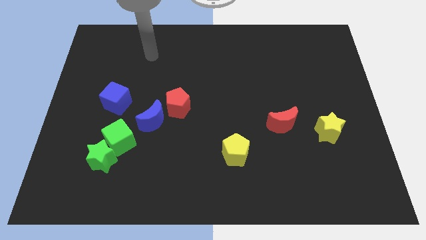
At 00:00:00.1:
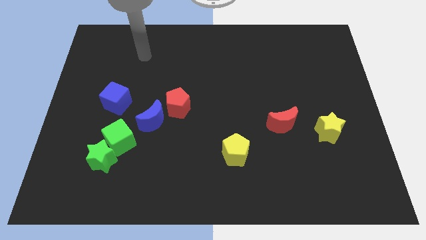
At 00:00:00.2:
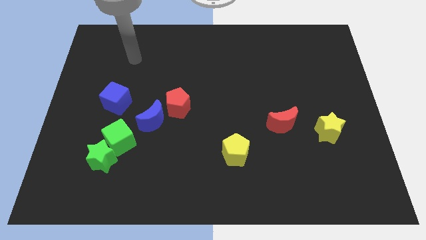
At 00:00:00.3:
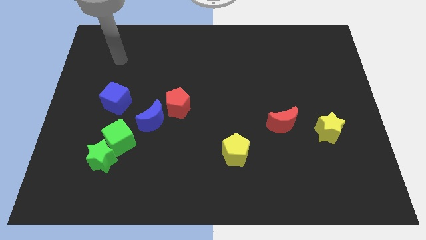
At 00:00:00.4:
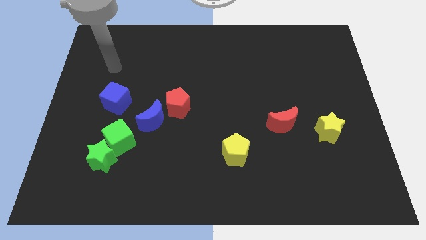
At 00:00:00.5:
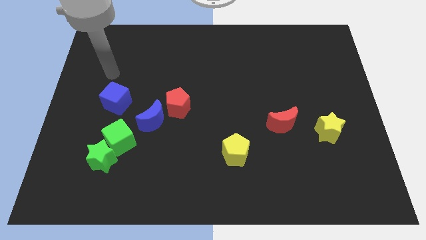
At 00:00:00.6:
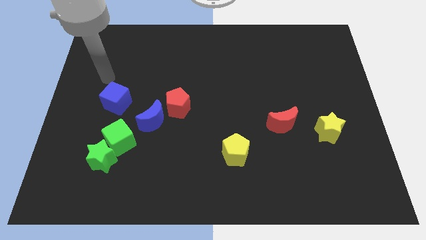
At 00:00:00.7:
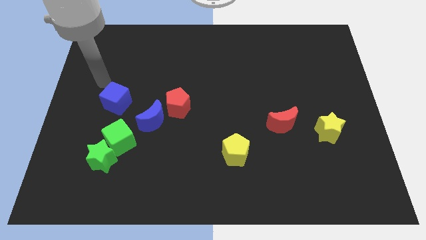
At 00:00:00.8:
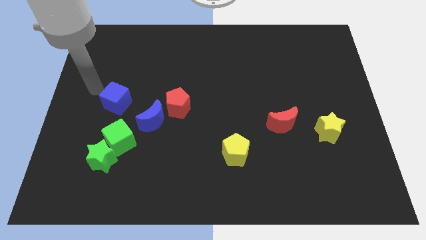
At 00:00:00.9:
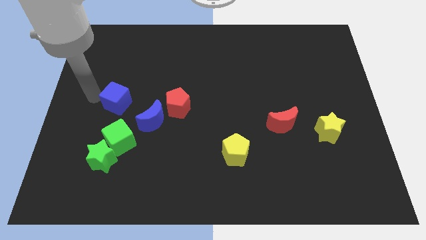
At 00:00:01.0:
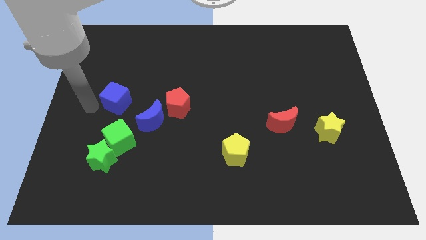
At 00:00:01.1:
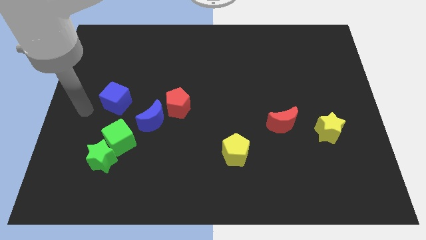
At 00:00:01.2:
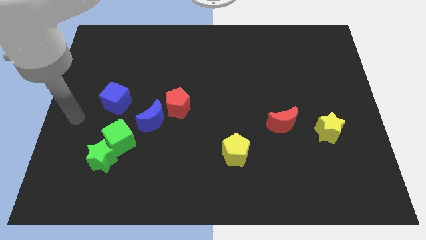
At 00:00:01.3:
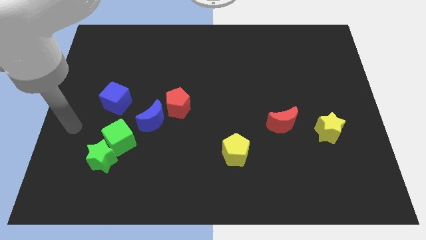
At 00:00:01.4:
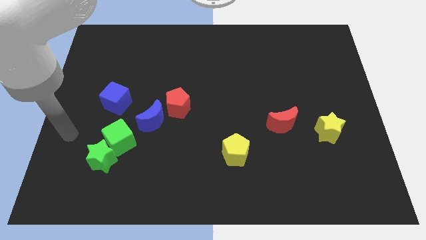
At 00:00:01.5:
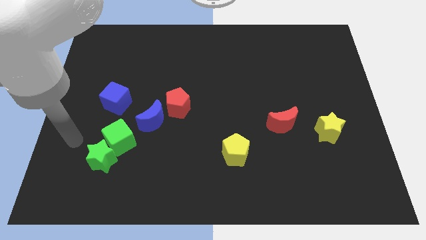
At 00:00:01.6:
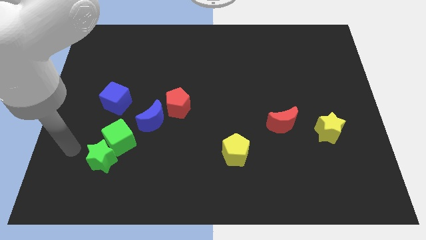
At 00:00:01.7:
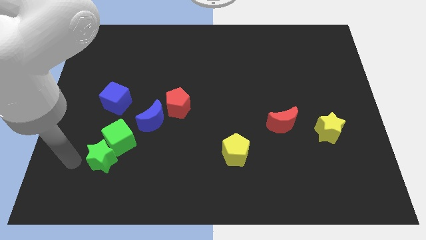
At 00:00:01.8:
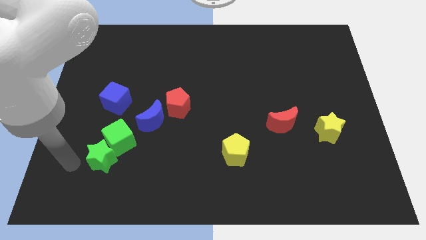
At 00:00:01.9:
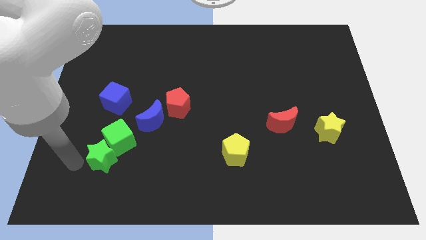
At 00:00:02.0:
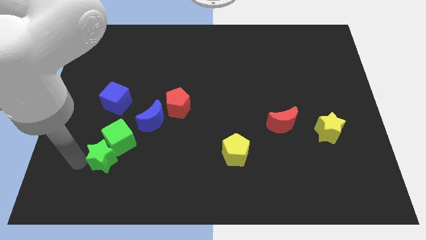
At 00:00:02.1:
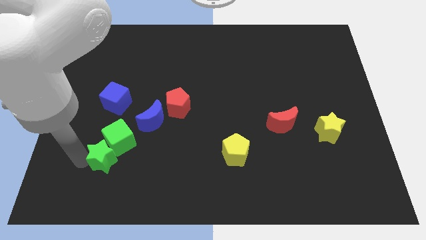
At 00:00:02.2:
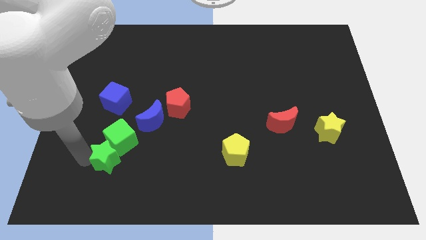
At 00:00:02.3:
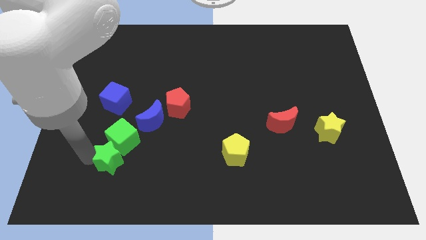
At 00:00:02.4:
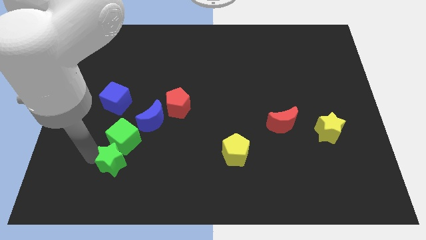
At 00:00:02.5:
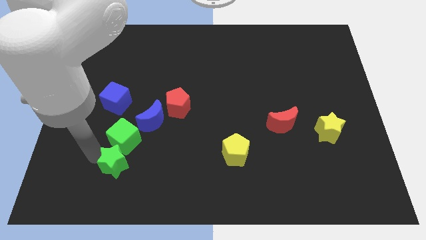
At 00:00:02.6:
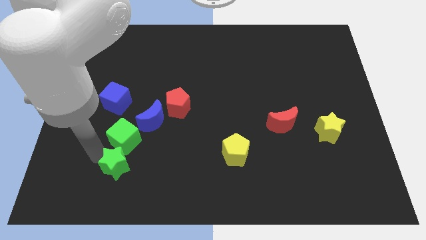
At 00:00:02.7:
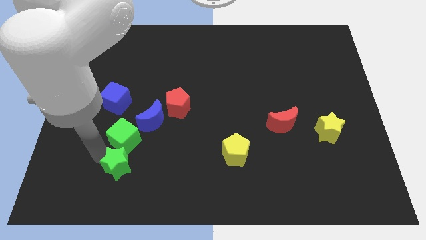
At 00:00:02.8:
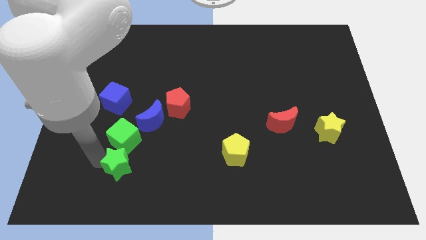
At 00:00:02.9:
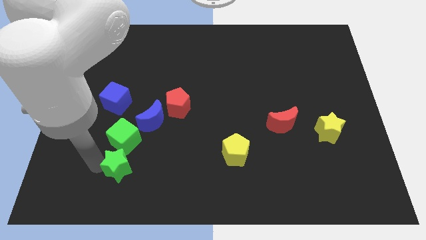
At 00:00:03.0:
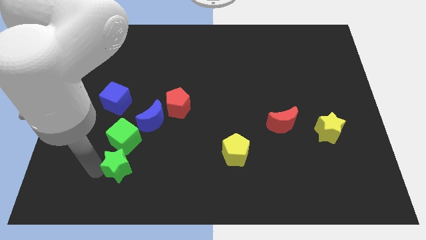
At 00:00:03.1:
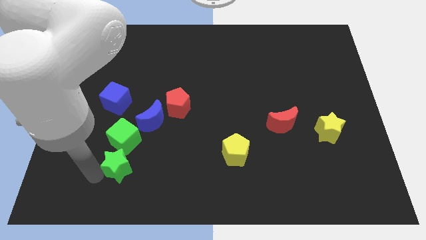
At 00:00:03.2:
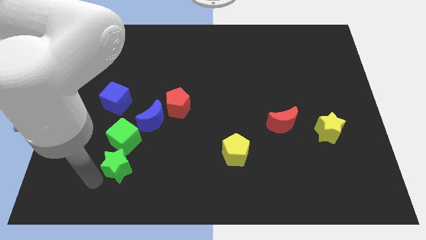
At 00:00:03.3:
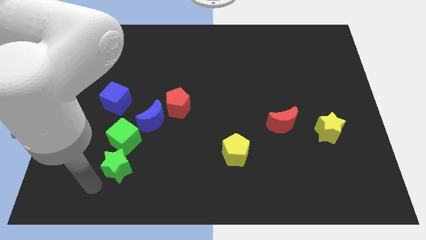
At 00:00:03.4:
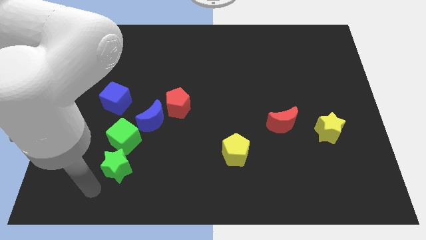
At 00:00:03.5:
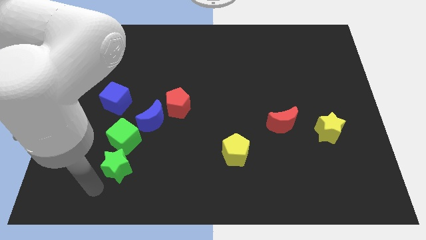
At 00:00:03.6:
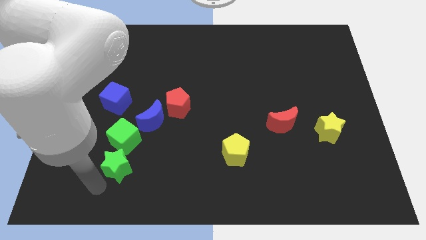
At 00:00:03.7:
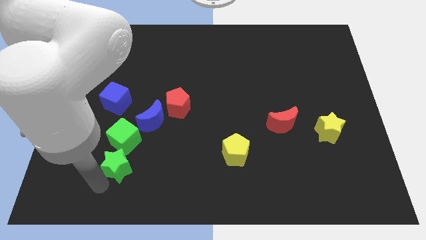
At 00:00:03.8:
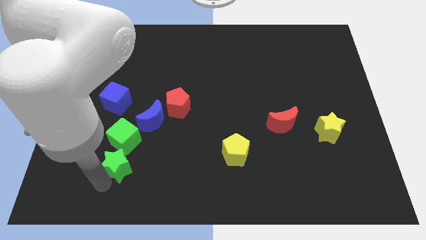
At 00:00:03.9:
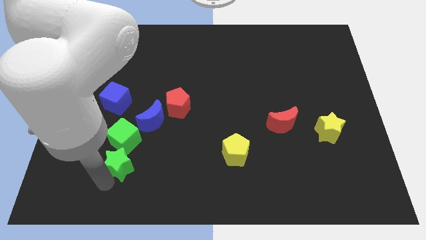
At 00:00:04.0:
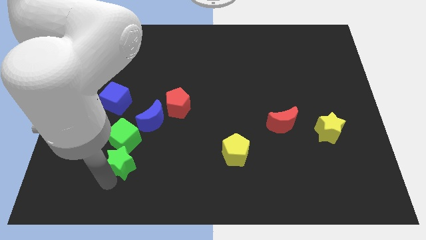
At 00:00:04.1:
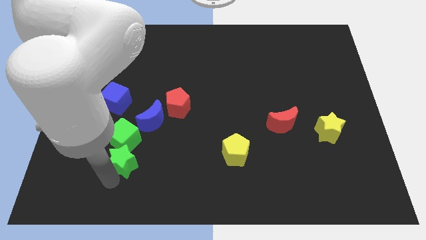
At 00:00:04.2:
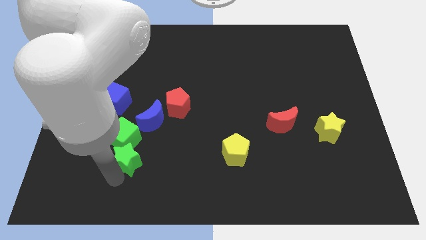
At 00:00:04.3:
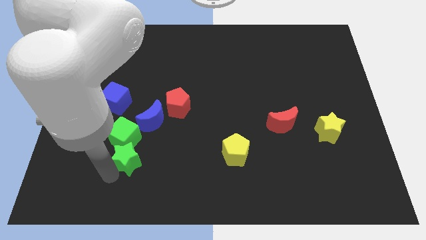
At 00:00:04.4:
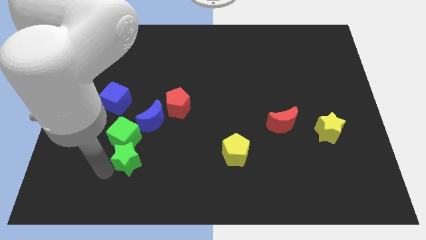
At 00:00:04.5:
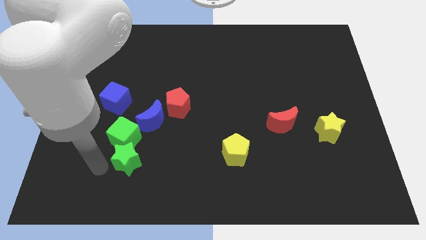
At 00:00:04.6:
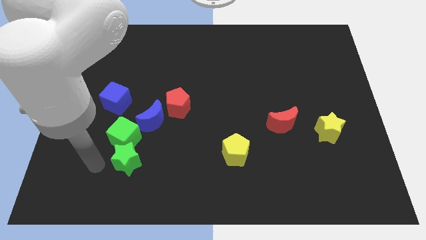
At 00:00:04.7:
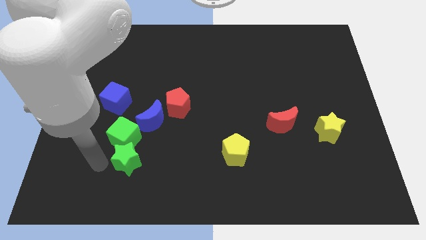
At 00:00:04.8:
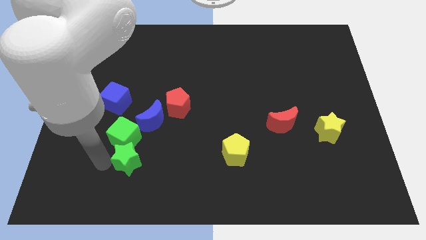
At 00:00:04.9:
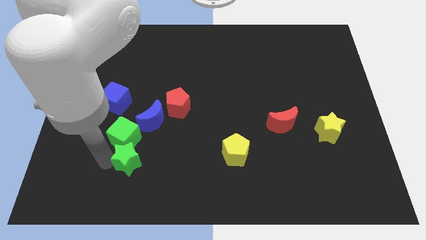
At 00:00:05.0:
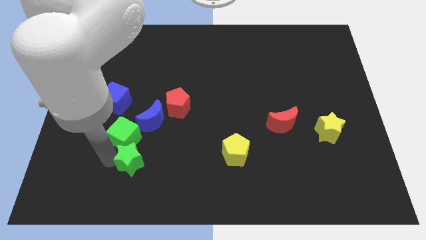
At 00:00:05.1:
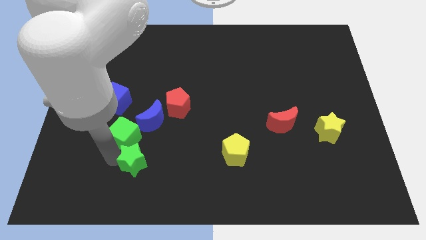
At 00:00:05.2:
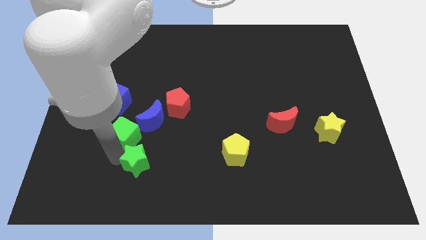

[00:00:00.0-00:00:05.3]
slightly slide the green star to the right

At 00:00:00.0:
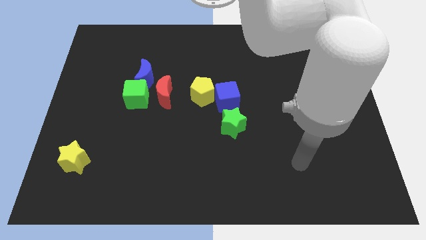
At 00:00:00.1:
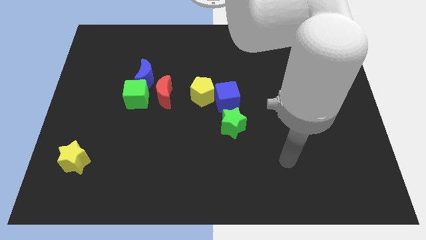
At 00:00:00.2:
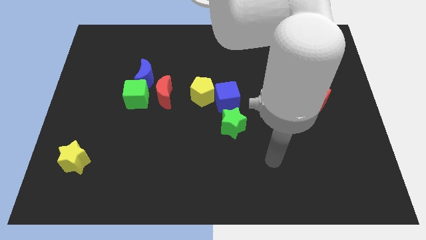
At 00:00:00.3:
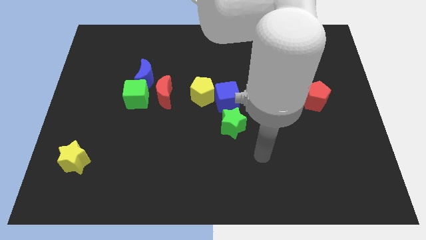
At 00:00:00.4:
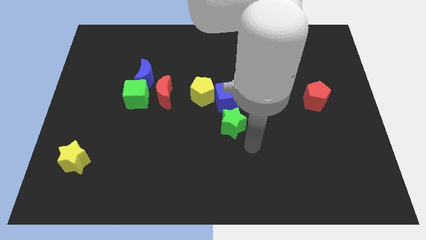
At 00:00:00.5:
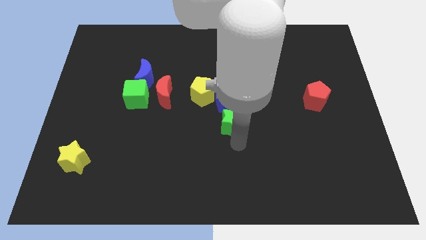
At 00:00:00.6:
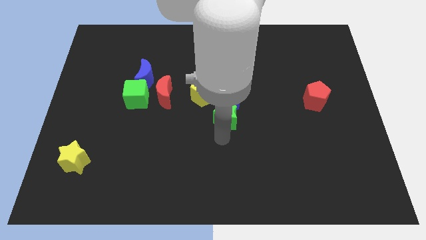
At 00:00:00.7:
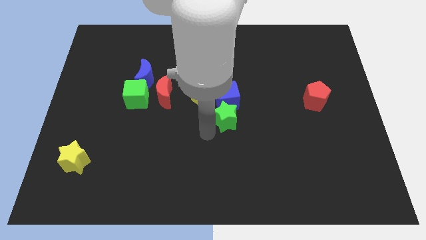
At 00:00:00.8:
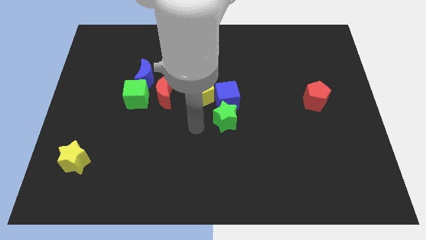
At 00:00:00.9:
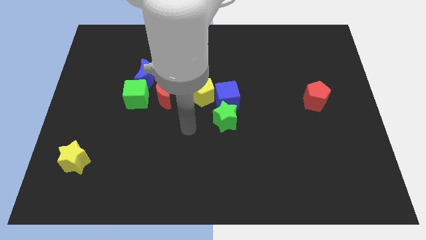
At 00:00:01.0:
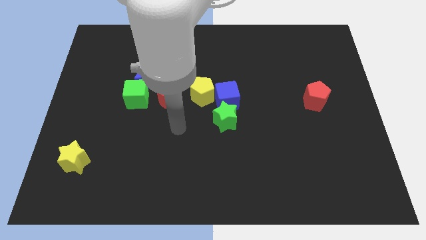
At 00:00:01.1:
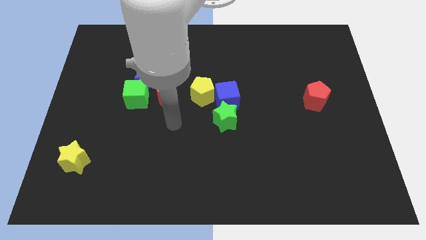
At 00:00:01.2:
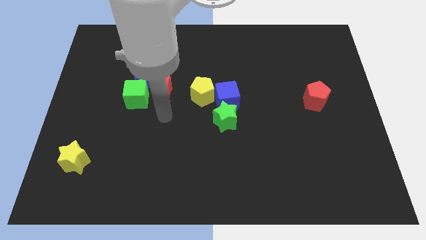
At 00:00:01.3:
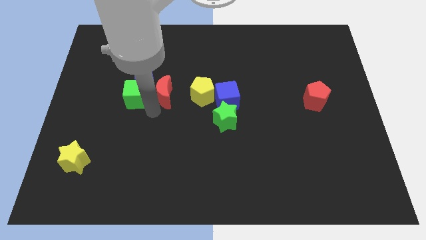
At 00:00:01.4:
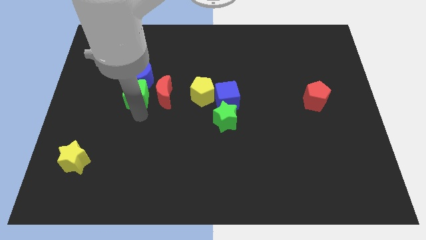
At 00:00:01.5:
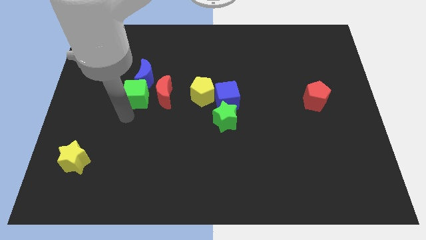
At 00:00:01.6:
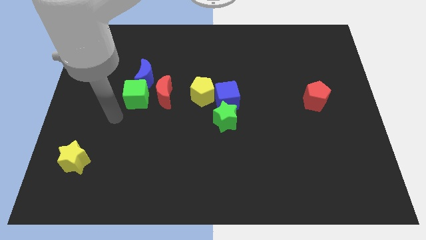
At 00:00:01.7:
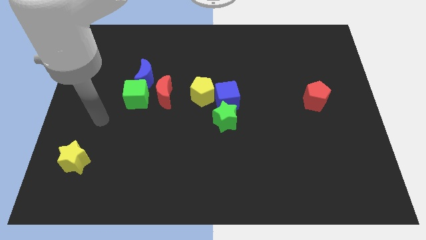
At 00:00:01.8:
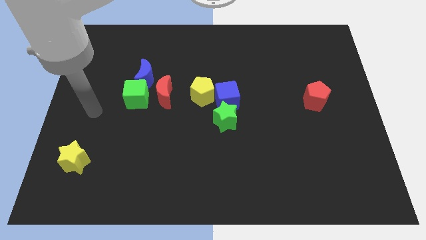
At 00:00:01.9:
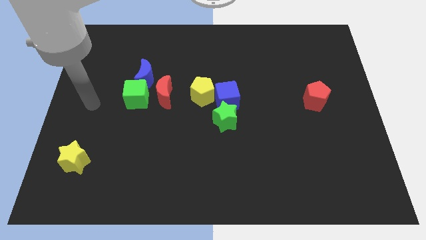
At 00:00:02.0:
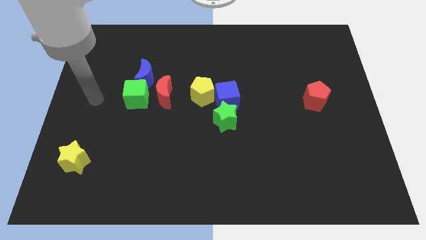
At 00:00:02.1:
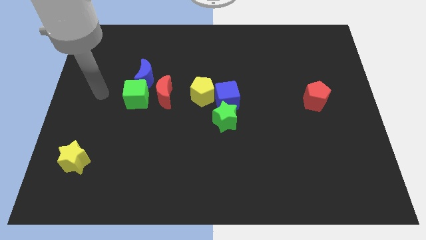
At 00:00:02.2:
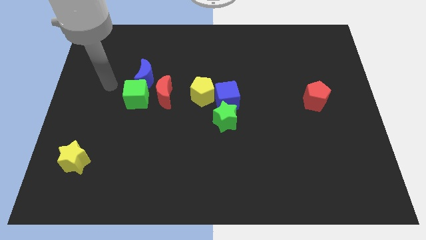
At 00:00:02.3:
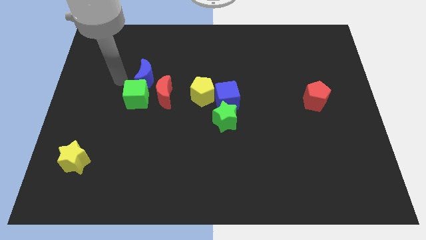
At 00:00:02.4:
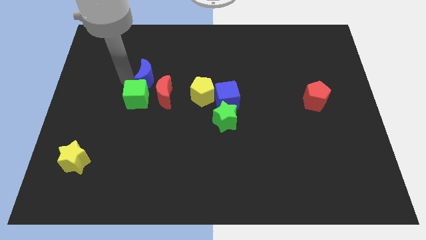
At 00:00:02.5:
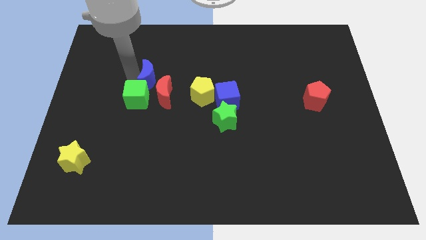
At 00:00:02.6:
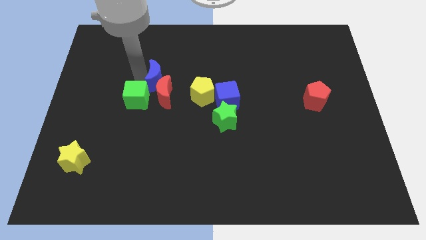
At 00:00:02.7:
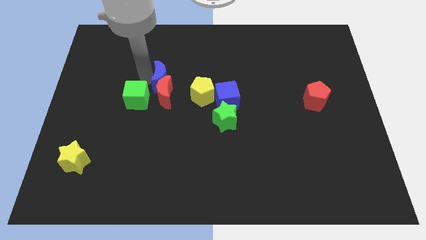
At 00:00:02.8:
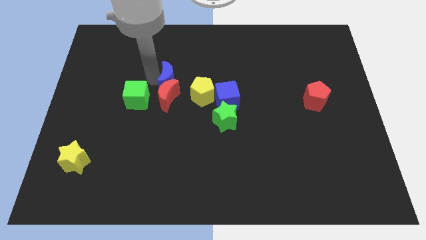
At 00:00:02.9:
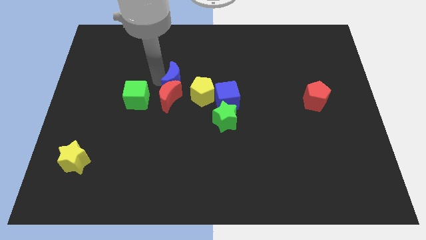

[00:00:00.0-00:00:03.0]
push the blue moon a little bit to the right

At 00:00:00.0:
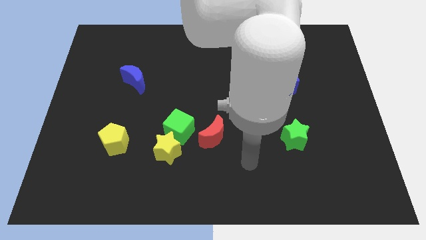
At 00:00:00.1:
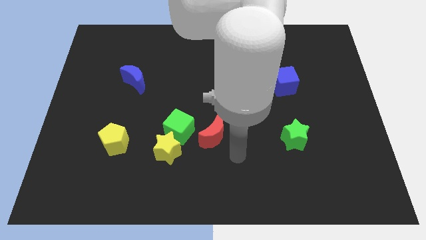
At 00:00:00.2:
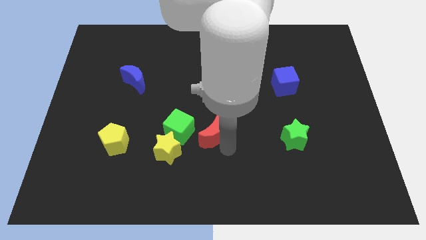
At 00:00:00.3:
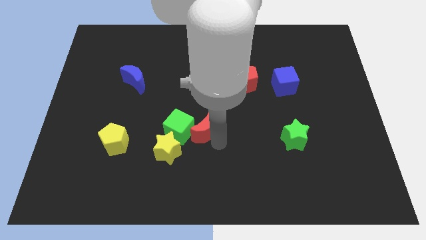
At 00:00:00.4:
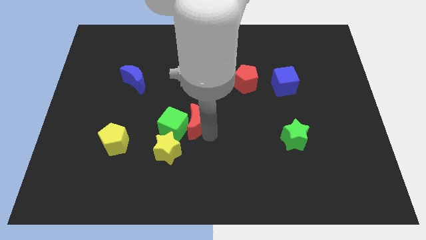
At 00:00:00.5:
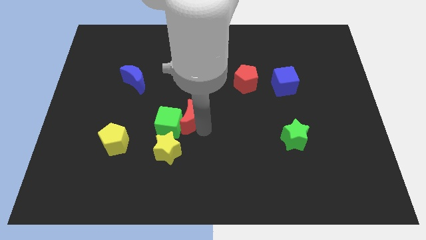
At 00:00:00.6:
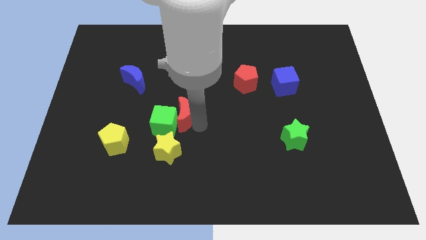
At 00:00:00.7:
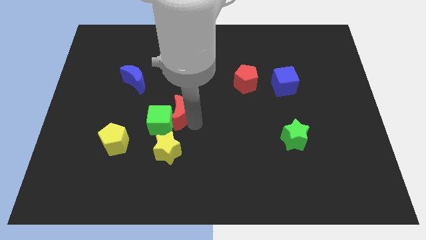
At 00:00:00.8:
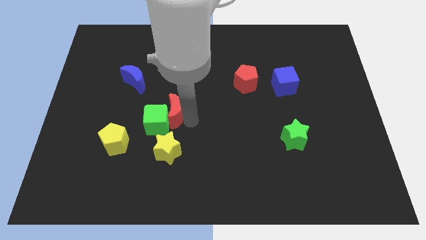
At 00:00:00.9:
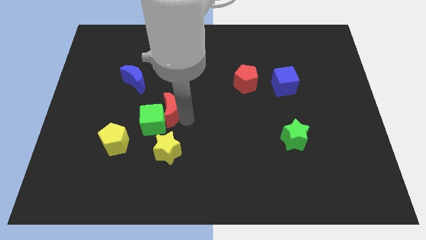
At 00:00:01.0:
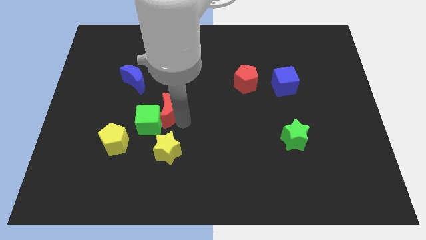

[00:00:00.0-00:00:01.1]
slightly push the green cube to the left
